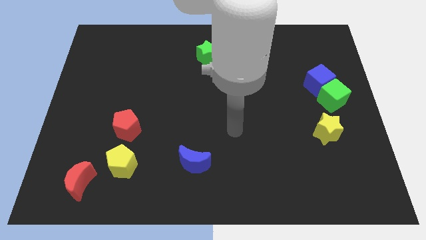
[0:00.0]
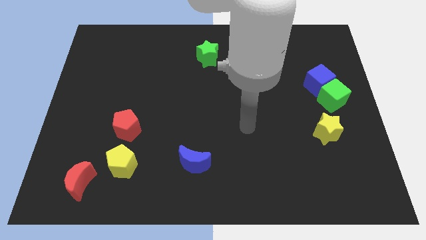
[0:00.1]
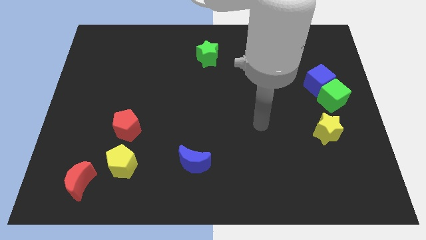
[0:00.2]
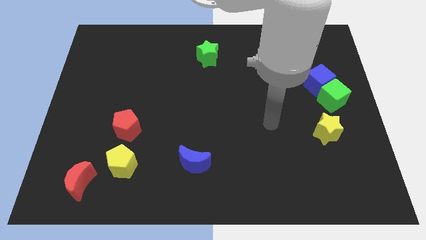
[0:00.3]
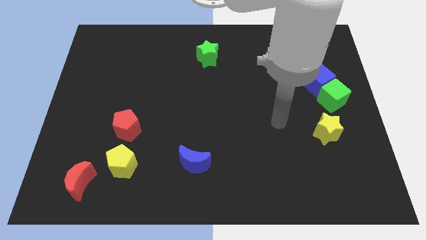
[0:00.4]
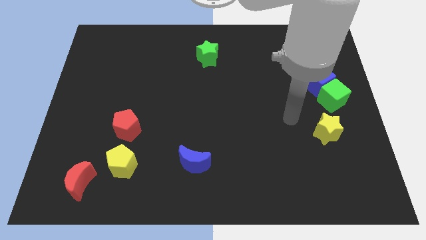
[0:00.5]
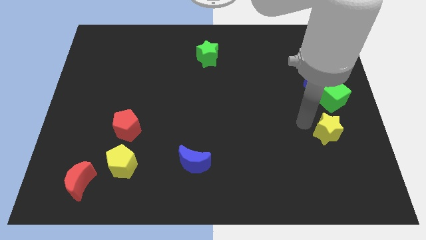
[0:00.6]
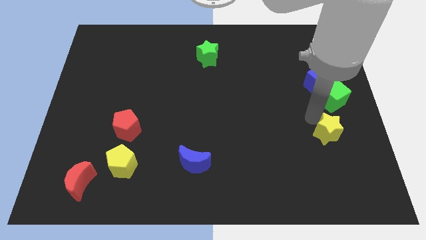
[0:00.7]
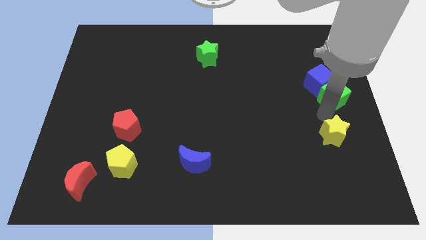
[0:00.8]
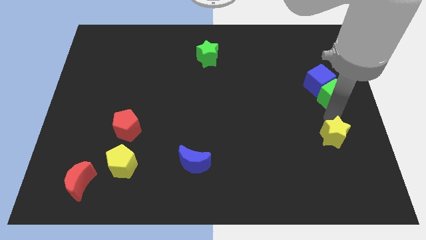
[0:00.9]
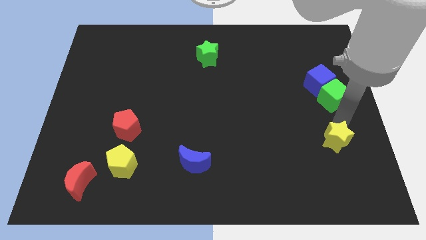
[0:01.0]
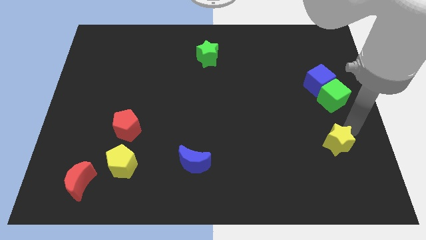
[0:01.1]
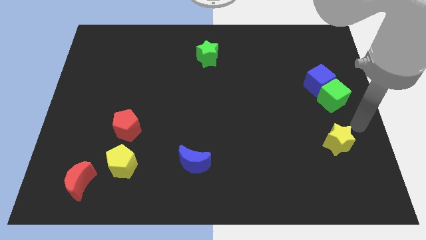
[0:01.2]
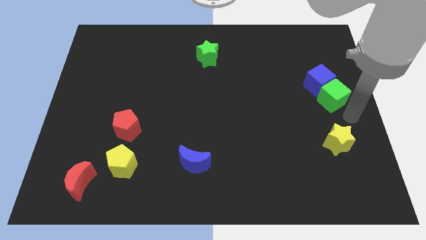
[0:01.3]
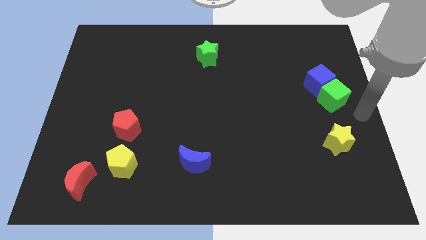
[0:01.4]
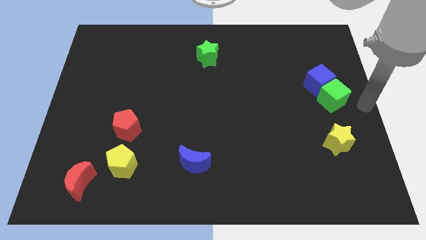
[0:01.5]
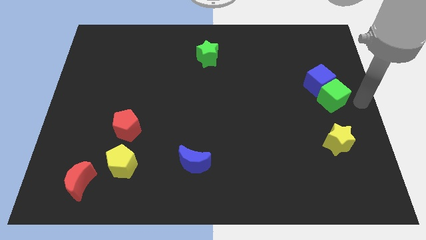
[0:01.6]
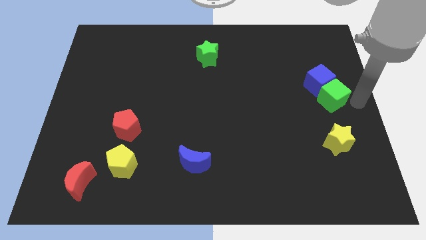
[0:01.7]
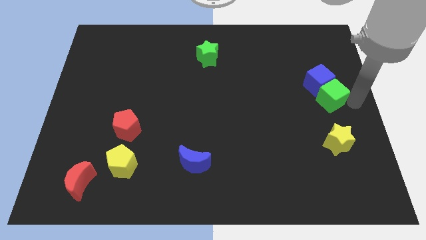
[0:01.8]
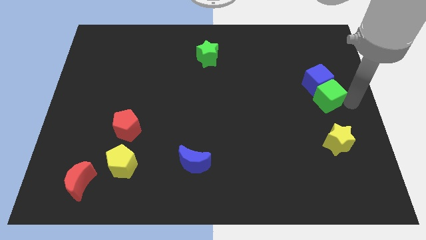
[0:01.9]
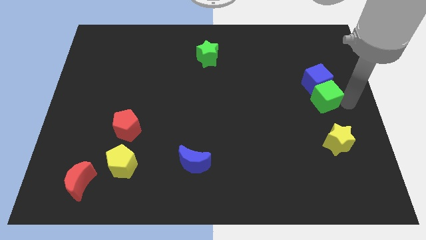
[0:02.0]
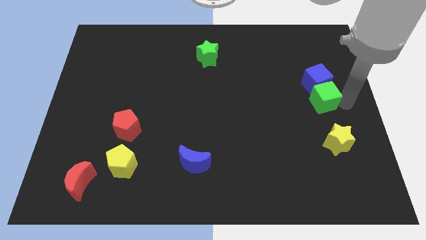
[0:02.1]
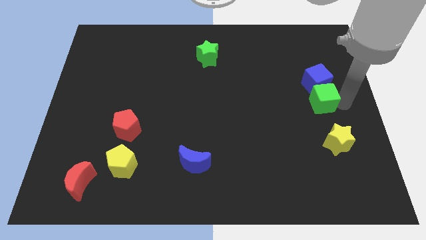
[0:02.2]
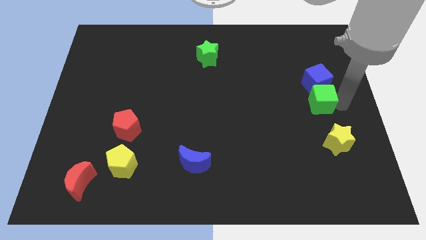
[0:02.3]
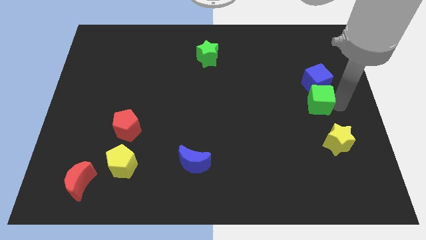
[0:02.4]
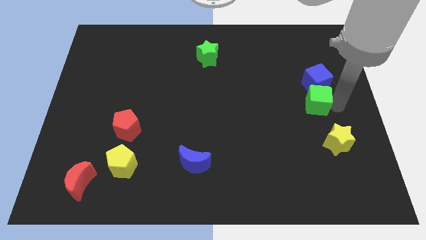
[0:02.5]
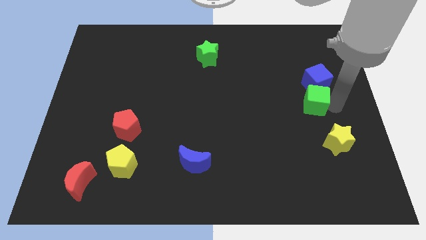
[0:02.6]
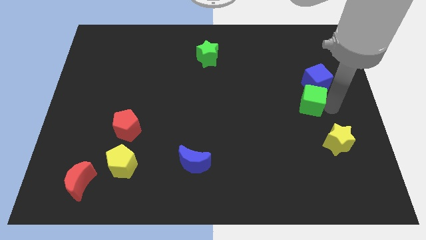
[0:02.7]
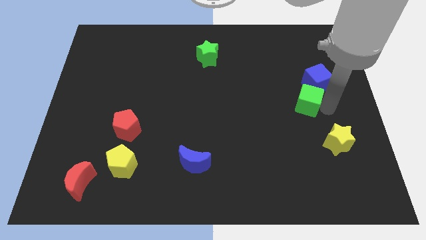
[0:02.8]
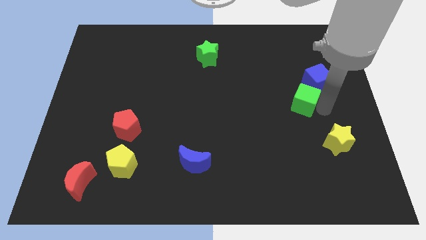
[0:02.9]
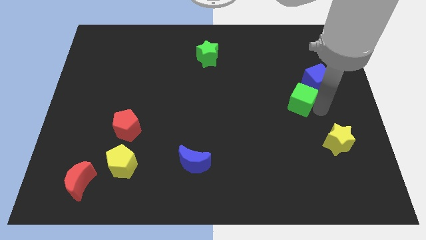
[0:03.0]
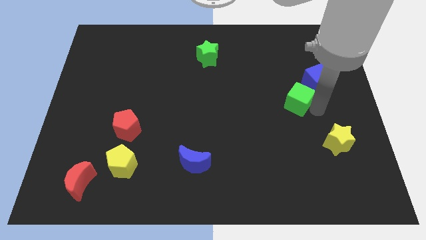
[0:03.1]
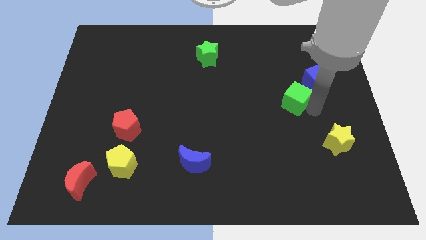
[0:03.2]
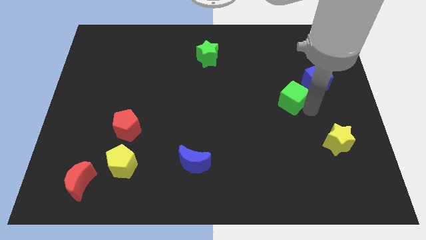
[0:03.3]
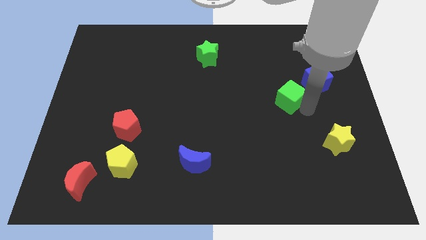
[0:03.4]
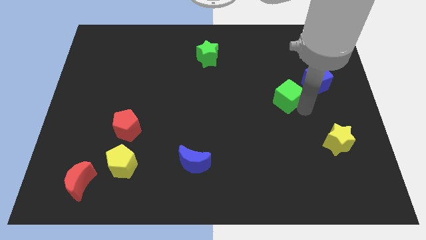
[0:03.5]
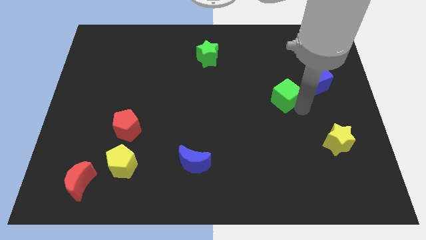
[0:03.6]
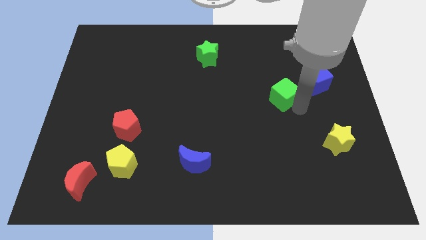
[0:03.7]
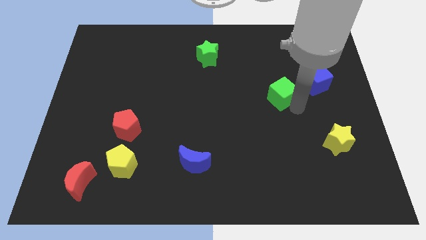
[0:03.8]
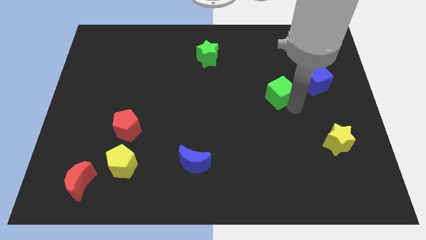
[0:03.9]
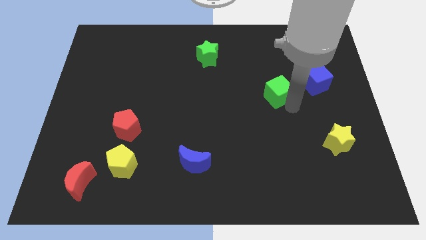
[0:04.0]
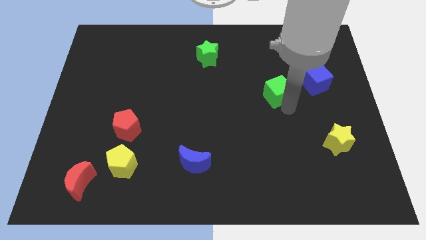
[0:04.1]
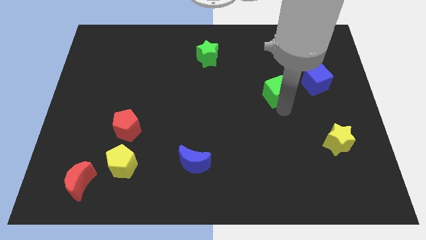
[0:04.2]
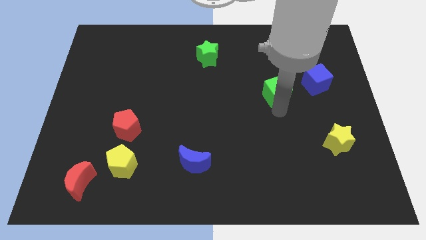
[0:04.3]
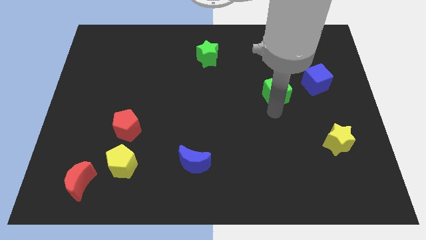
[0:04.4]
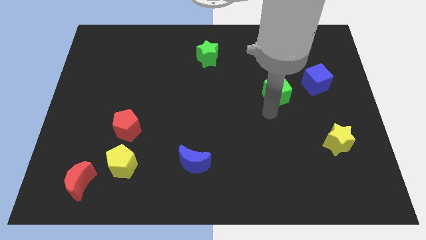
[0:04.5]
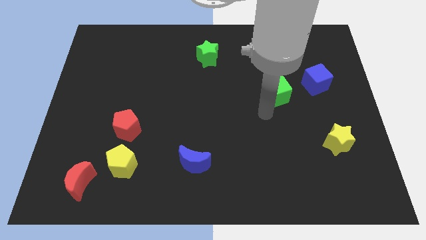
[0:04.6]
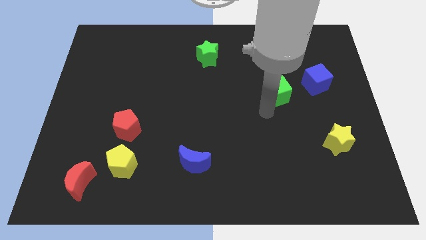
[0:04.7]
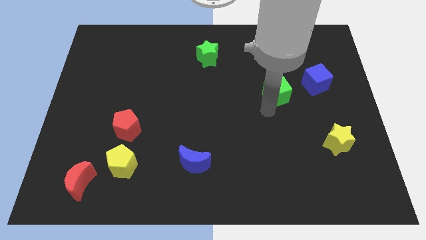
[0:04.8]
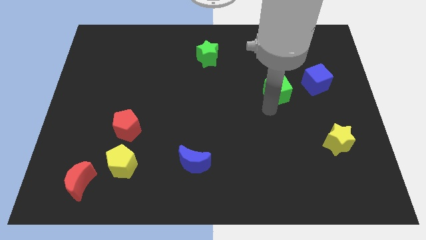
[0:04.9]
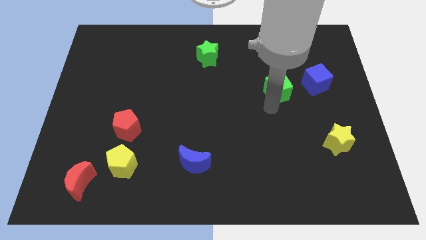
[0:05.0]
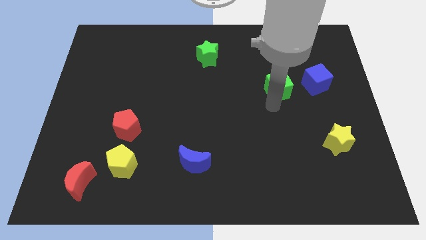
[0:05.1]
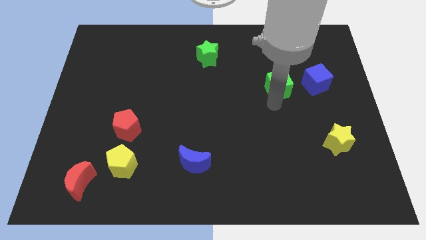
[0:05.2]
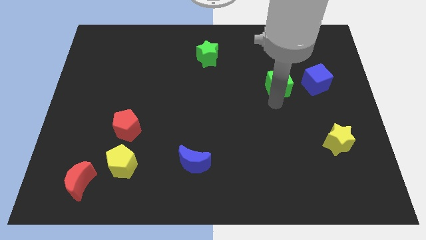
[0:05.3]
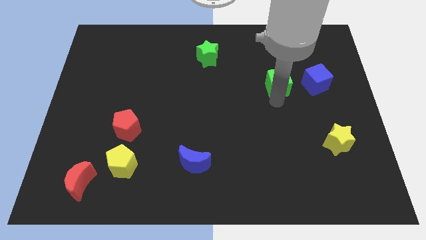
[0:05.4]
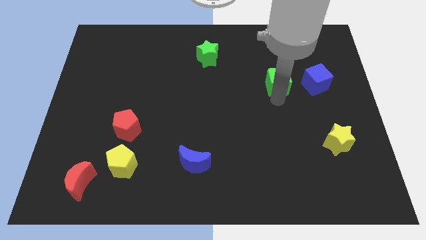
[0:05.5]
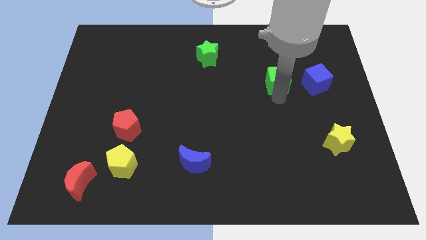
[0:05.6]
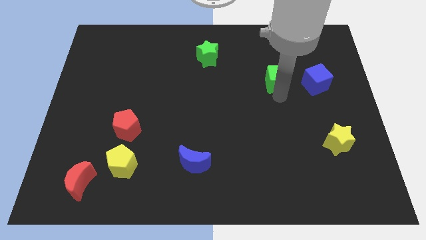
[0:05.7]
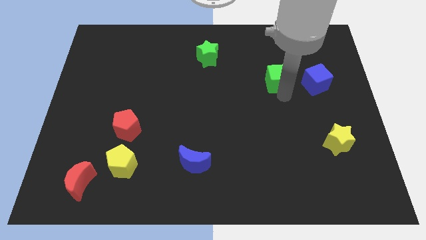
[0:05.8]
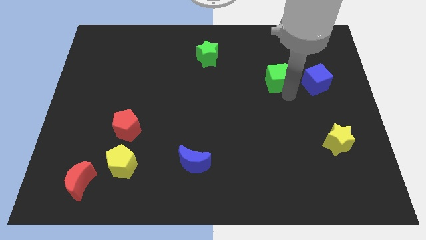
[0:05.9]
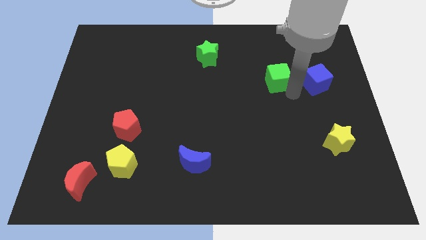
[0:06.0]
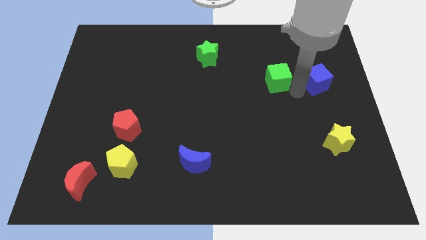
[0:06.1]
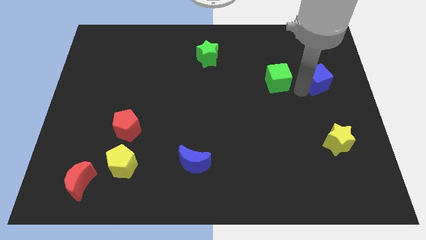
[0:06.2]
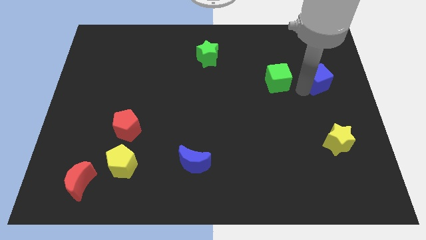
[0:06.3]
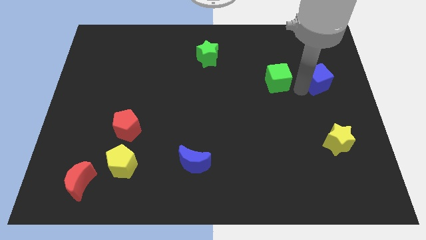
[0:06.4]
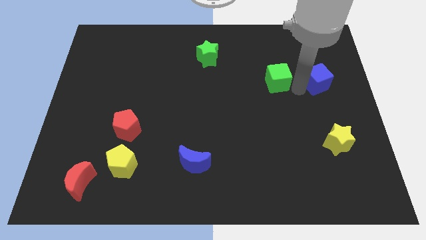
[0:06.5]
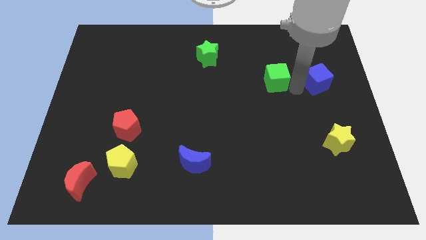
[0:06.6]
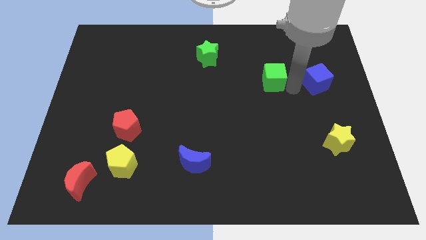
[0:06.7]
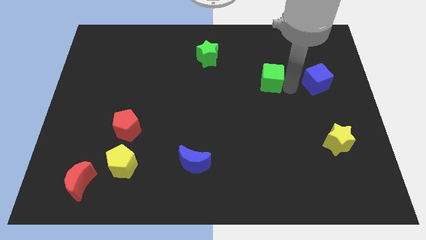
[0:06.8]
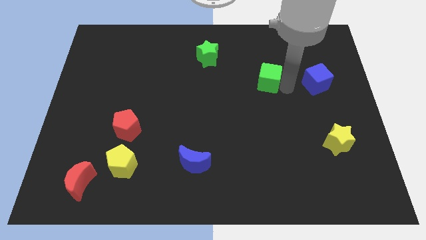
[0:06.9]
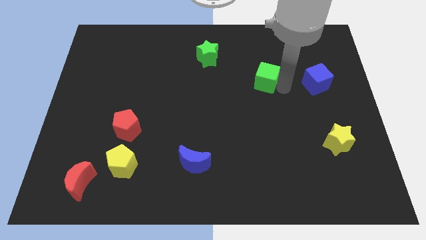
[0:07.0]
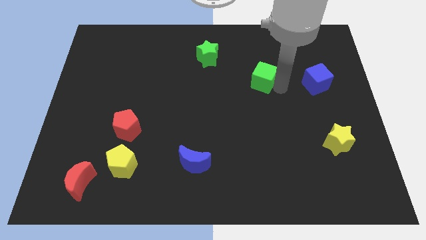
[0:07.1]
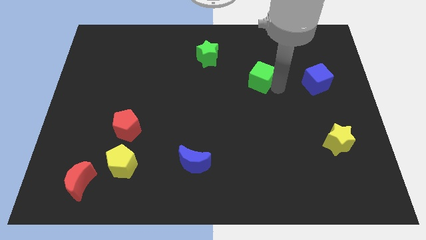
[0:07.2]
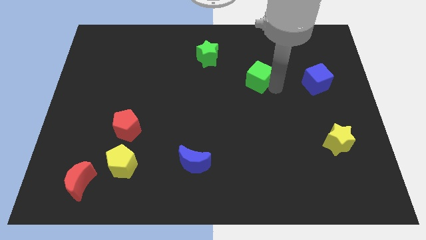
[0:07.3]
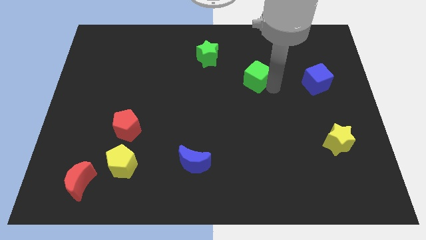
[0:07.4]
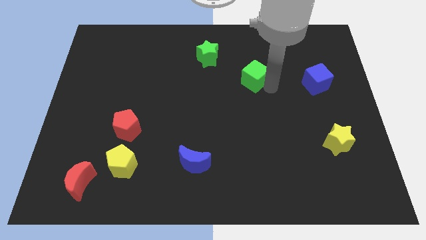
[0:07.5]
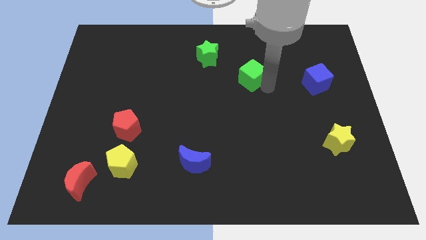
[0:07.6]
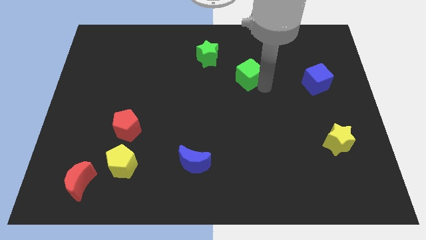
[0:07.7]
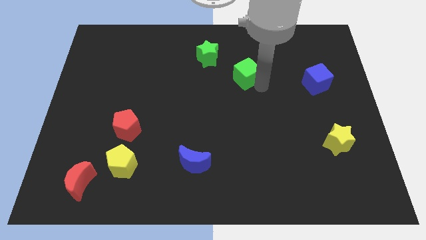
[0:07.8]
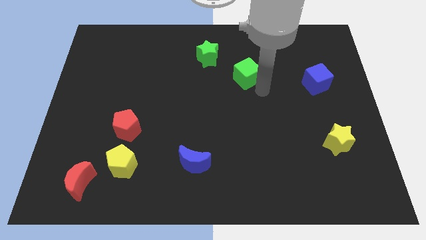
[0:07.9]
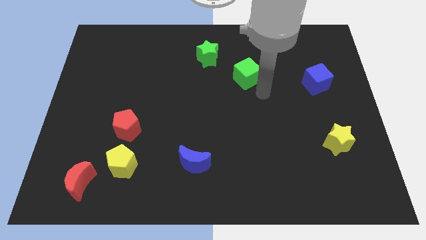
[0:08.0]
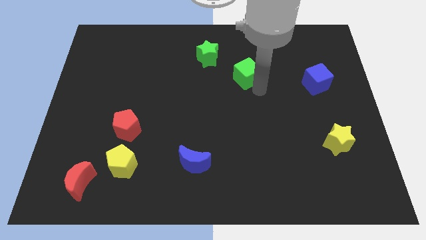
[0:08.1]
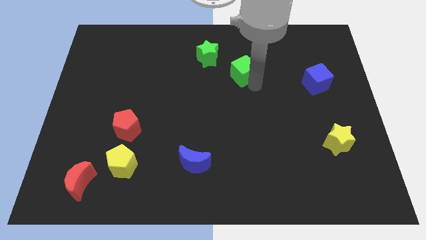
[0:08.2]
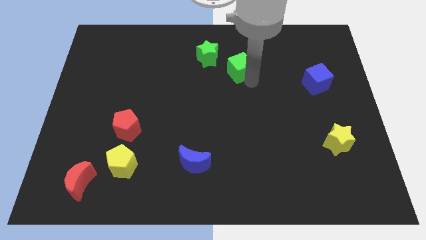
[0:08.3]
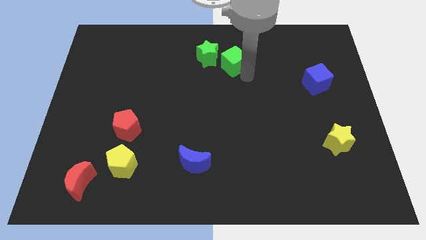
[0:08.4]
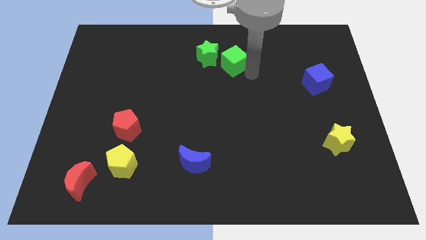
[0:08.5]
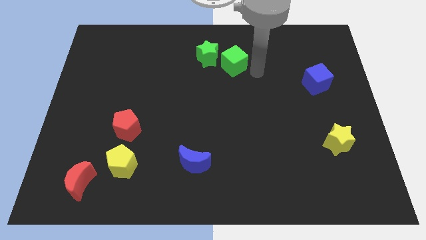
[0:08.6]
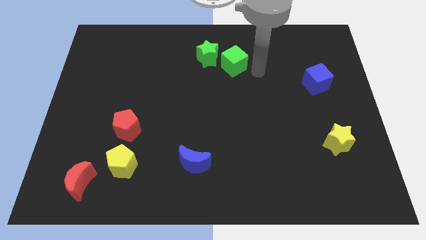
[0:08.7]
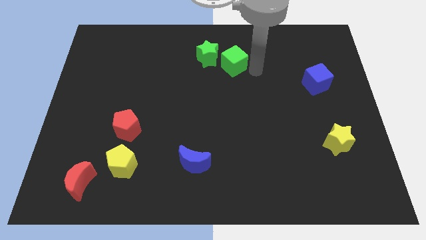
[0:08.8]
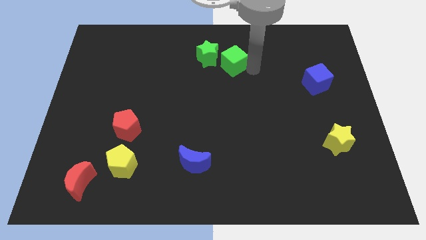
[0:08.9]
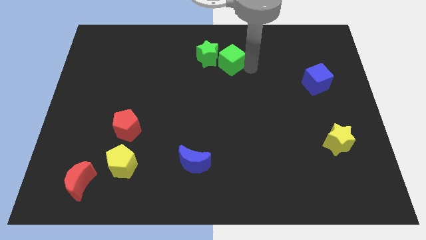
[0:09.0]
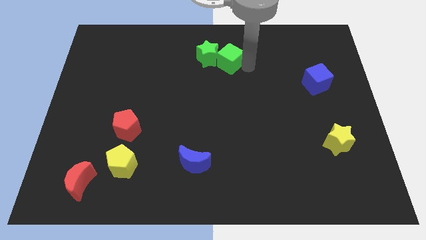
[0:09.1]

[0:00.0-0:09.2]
push the green cube to the green star
